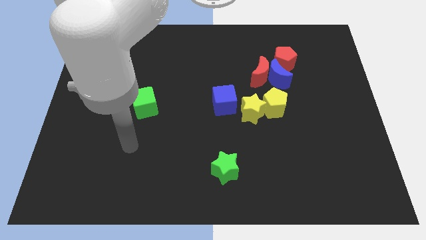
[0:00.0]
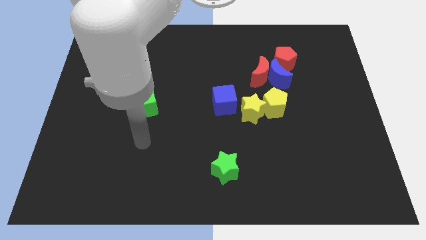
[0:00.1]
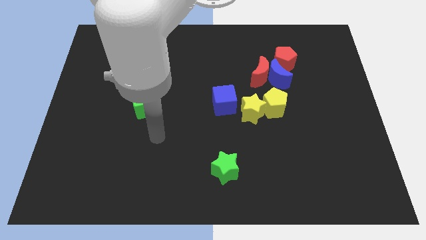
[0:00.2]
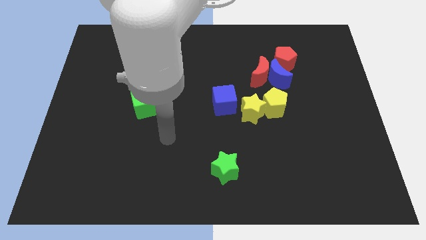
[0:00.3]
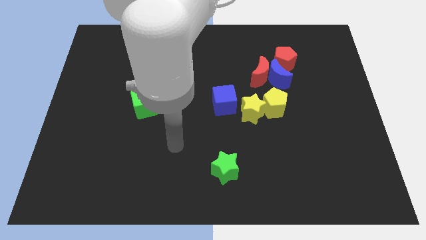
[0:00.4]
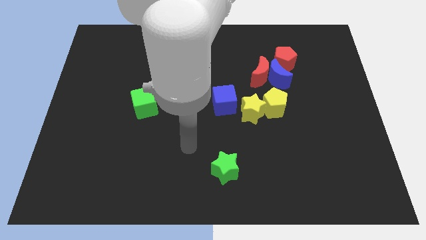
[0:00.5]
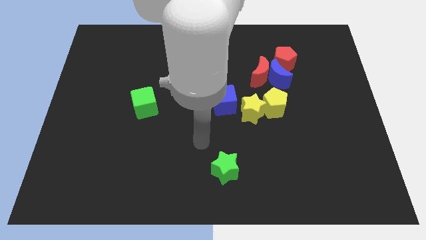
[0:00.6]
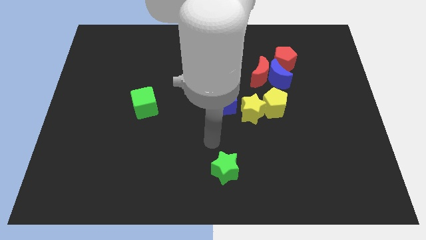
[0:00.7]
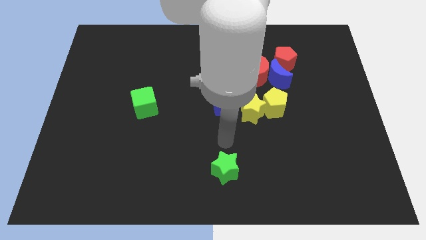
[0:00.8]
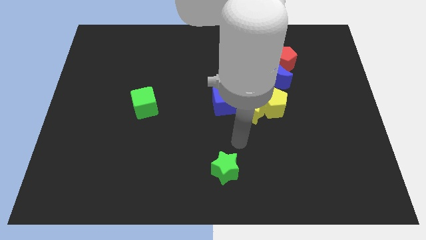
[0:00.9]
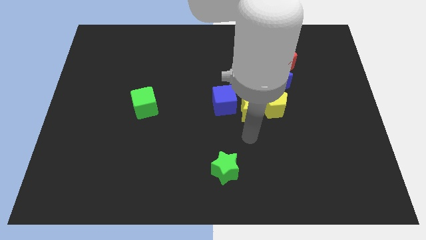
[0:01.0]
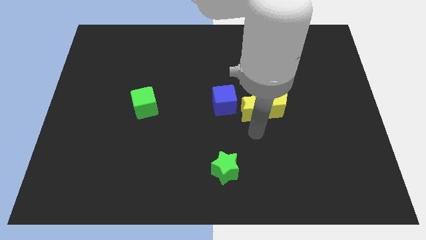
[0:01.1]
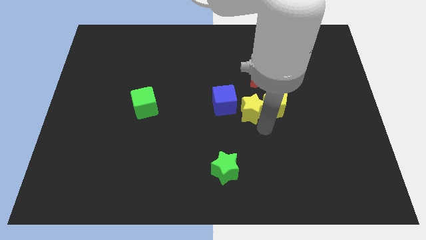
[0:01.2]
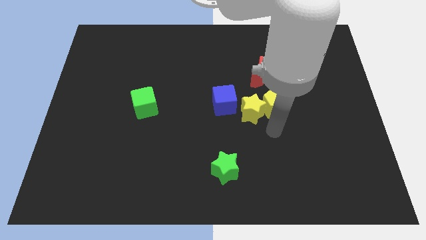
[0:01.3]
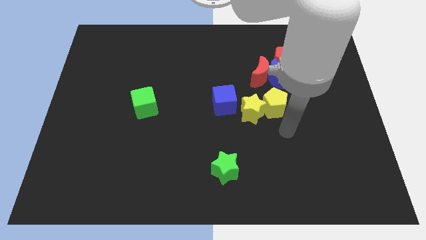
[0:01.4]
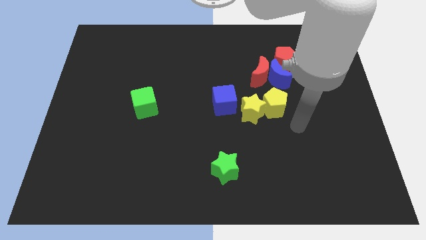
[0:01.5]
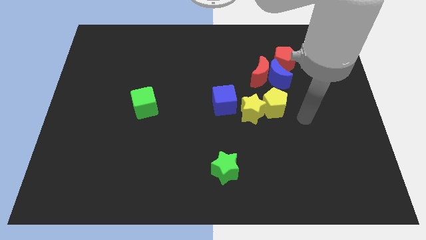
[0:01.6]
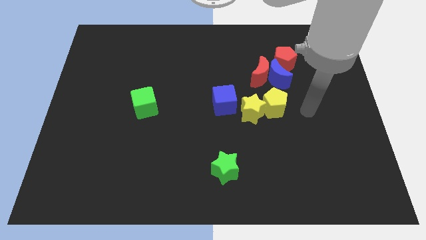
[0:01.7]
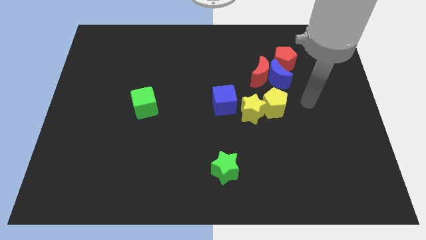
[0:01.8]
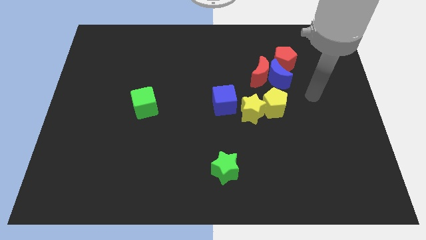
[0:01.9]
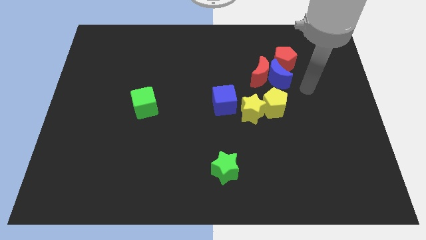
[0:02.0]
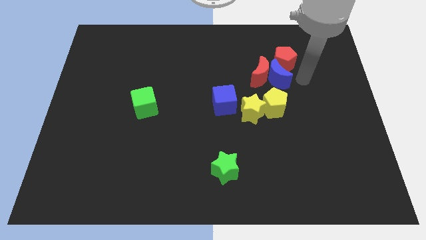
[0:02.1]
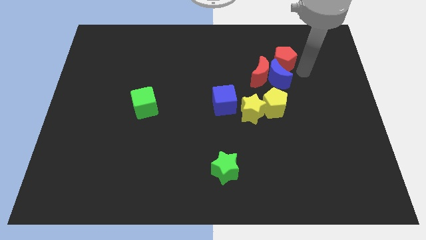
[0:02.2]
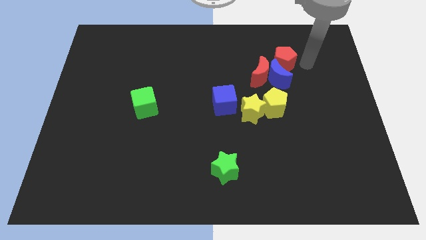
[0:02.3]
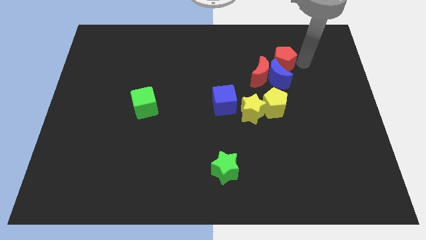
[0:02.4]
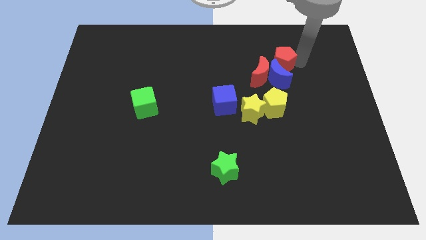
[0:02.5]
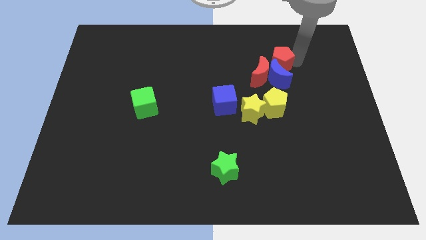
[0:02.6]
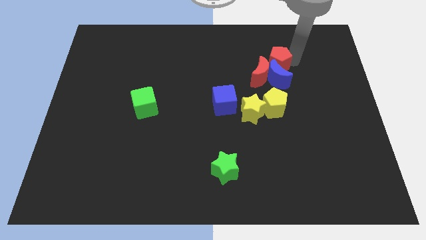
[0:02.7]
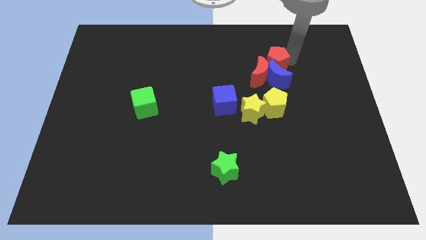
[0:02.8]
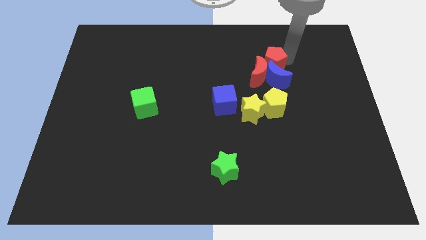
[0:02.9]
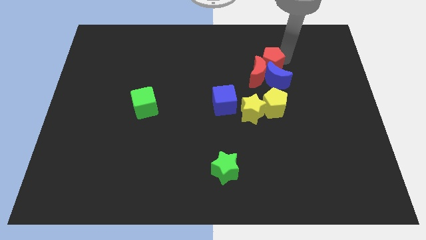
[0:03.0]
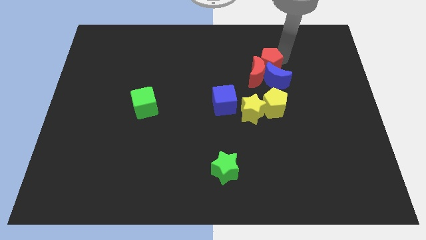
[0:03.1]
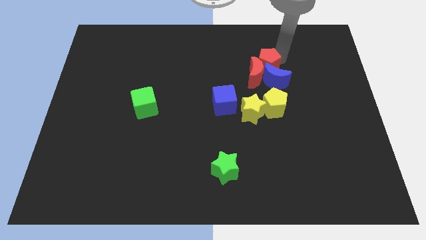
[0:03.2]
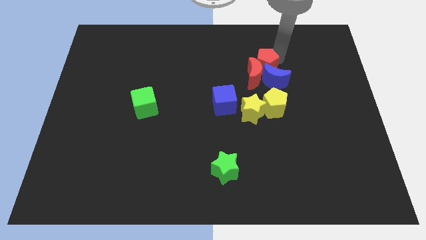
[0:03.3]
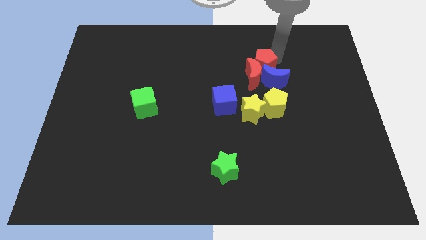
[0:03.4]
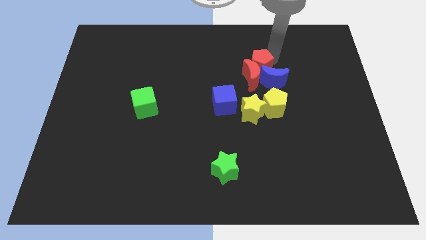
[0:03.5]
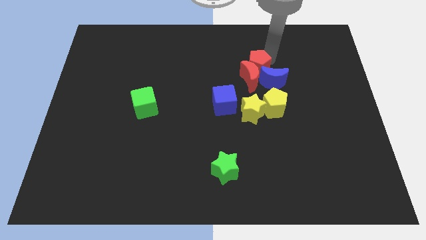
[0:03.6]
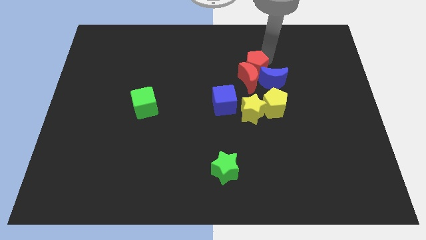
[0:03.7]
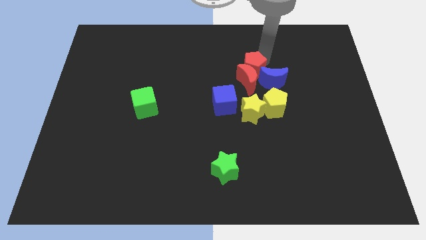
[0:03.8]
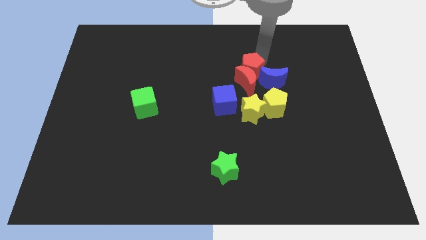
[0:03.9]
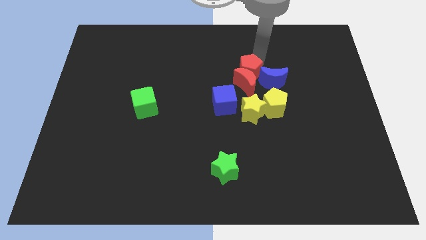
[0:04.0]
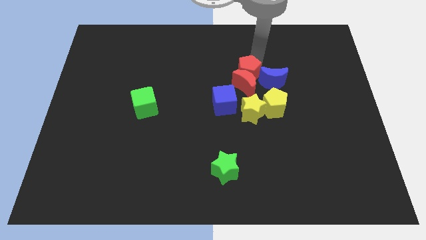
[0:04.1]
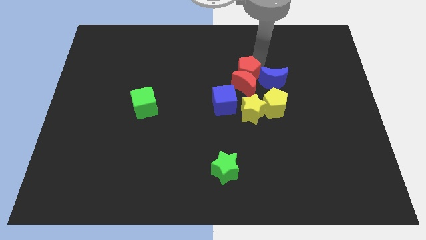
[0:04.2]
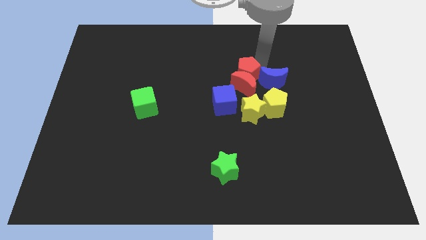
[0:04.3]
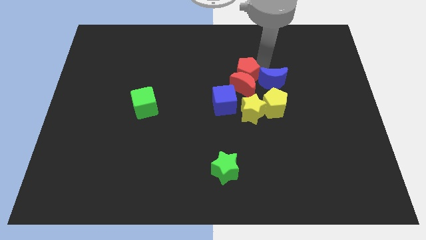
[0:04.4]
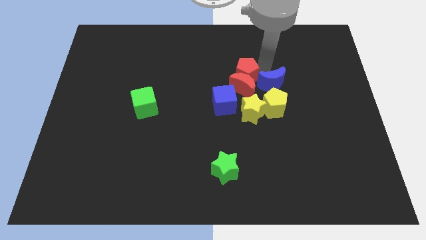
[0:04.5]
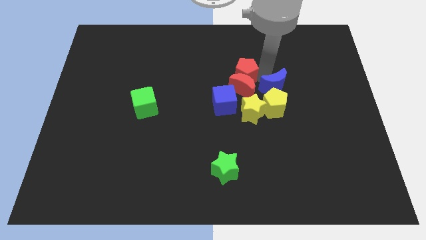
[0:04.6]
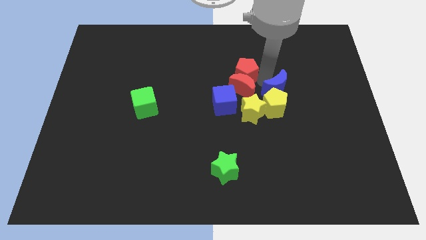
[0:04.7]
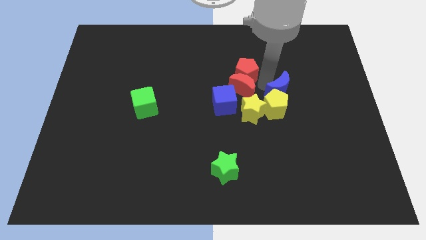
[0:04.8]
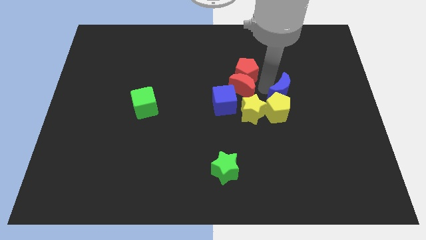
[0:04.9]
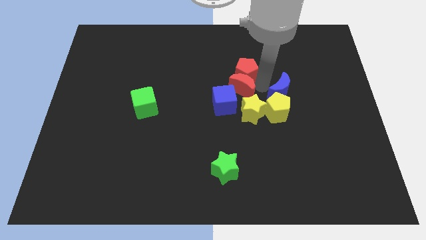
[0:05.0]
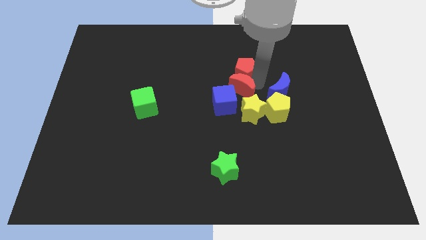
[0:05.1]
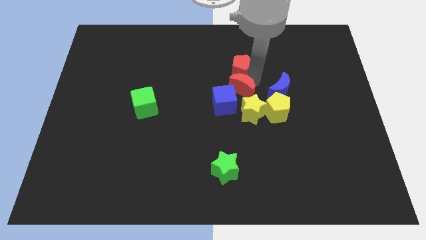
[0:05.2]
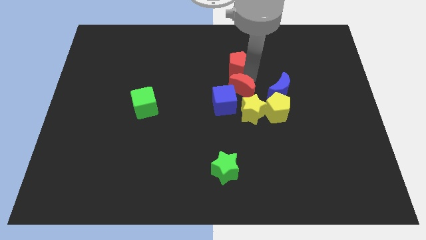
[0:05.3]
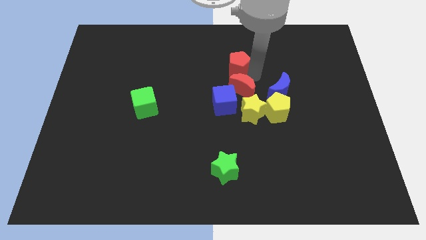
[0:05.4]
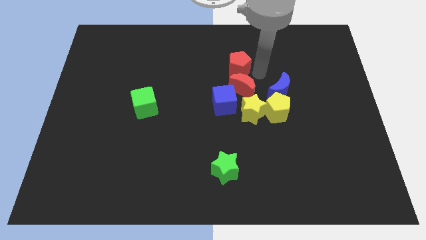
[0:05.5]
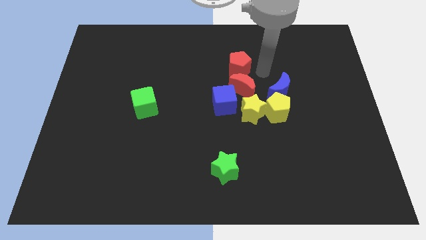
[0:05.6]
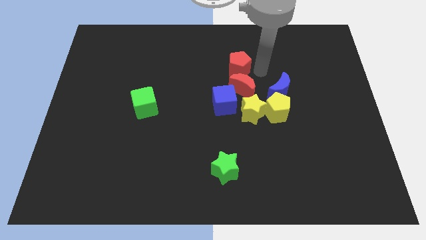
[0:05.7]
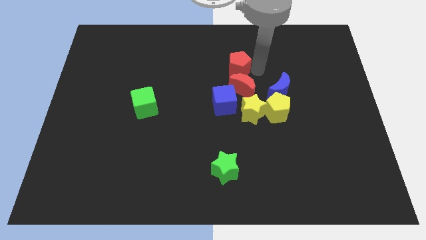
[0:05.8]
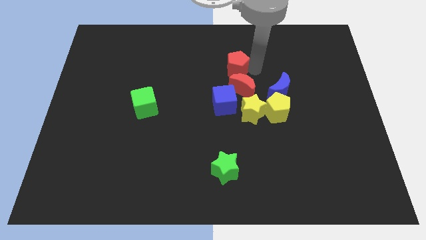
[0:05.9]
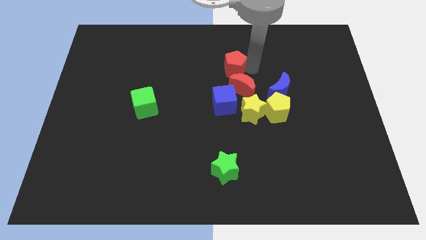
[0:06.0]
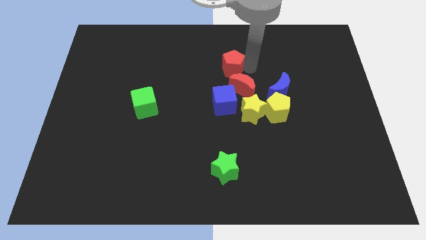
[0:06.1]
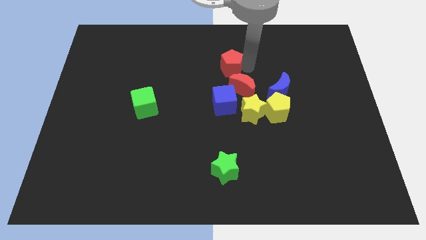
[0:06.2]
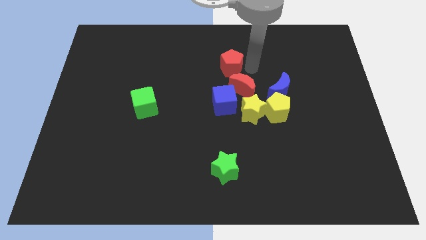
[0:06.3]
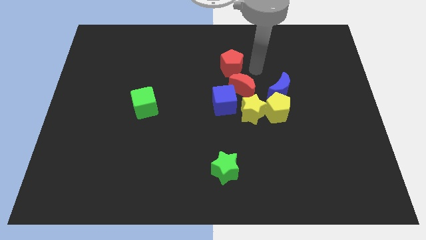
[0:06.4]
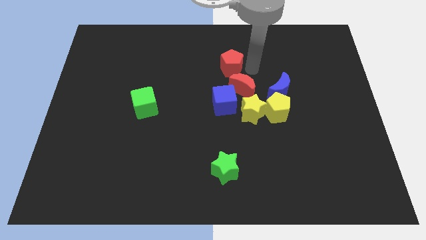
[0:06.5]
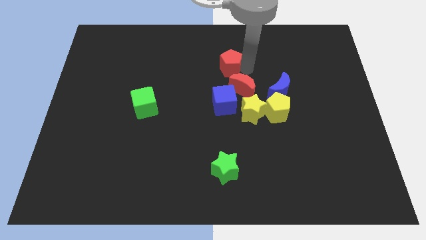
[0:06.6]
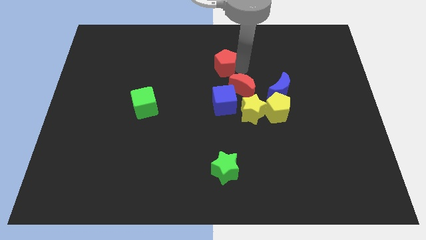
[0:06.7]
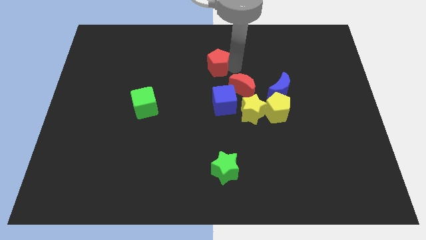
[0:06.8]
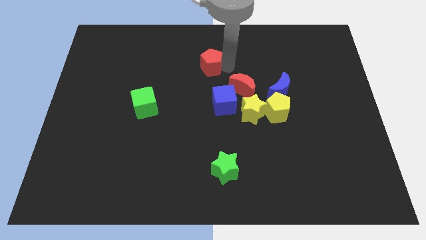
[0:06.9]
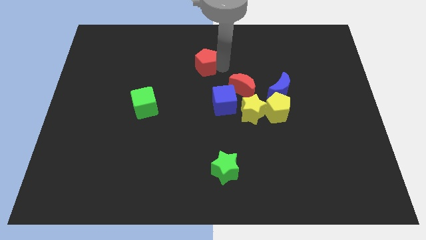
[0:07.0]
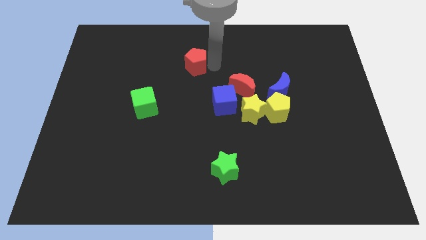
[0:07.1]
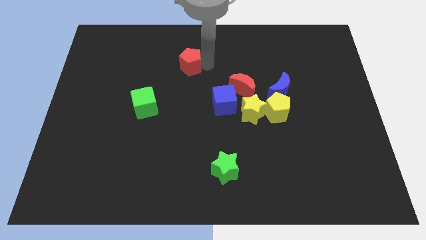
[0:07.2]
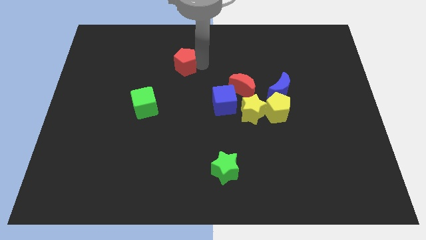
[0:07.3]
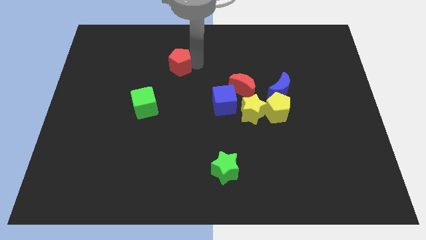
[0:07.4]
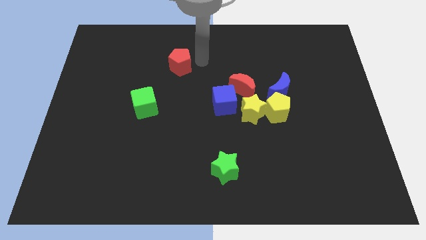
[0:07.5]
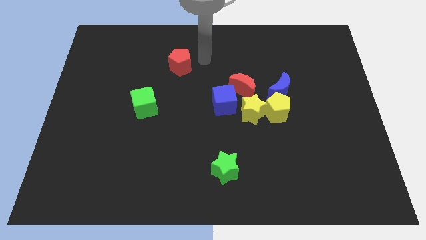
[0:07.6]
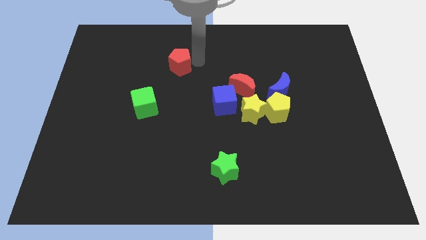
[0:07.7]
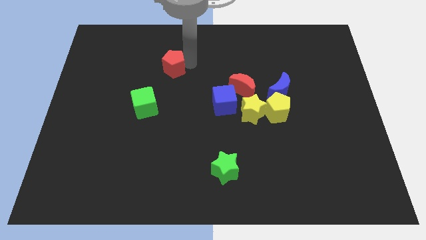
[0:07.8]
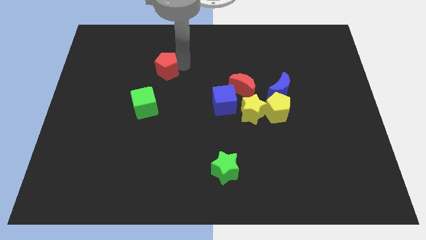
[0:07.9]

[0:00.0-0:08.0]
push the red pentagon above the green cube
